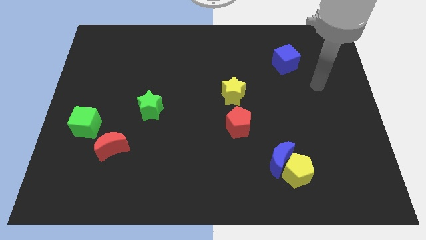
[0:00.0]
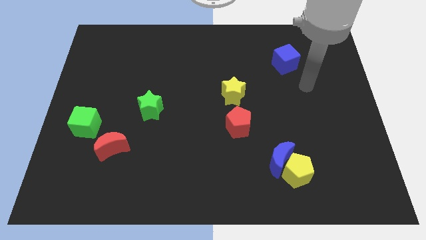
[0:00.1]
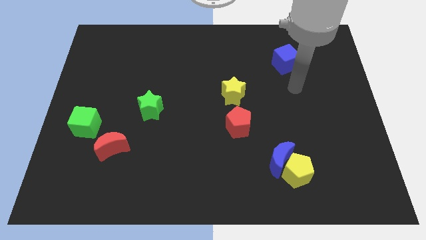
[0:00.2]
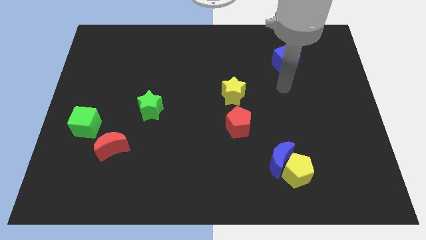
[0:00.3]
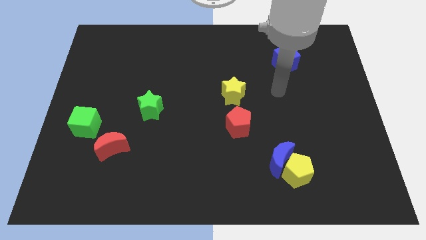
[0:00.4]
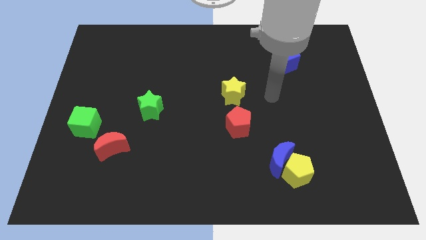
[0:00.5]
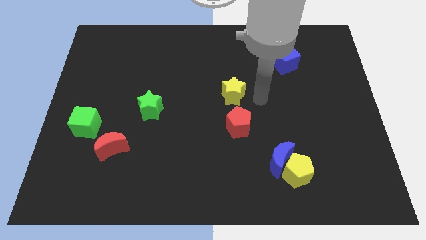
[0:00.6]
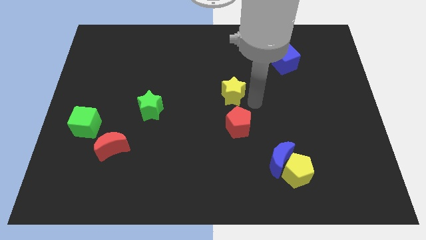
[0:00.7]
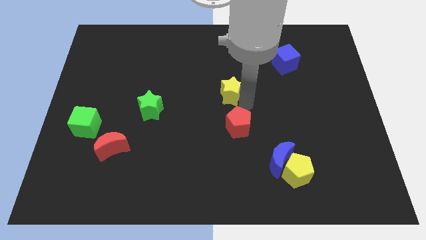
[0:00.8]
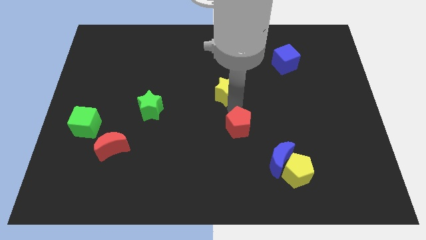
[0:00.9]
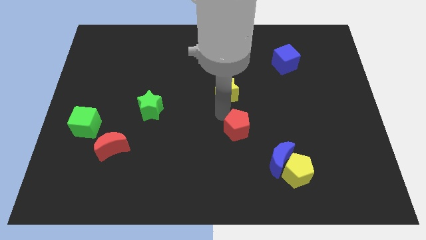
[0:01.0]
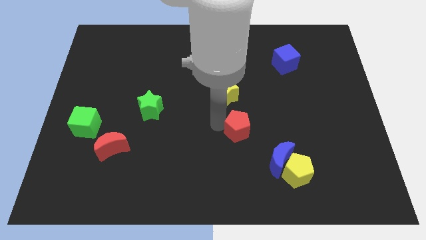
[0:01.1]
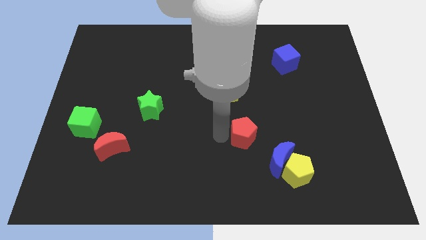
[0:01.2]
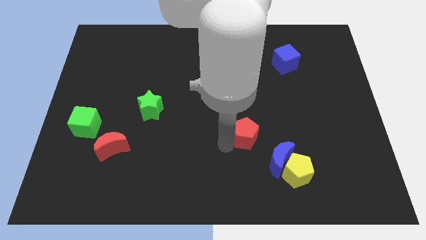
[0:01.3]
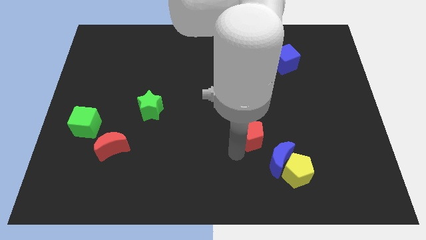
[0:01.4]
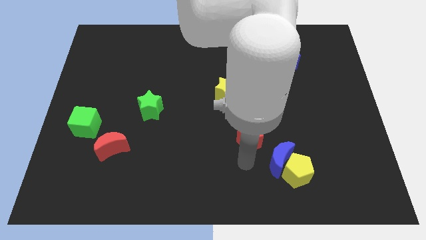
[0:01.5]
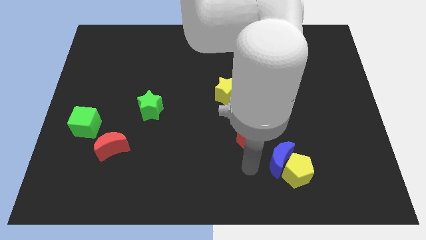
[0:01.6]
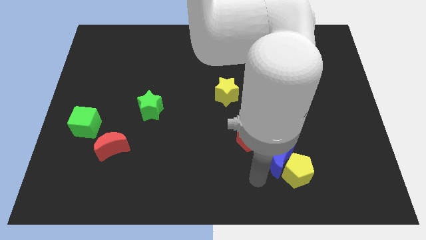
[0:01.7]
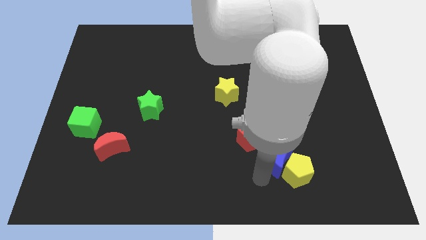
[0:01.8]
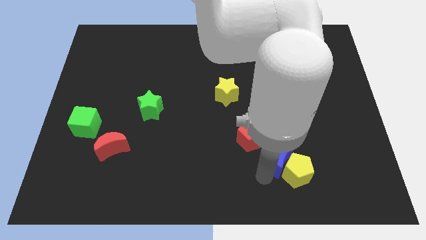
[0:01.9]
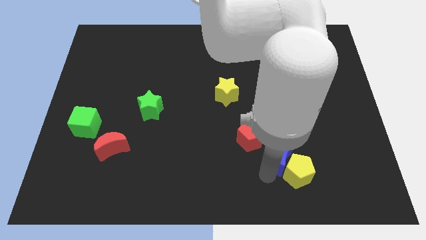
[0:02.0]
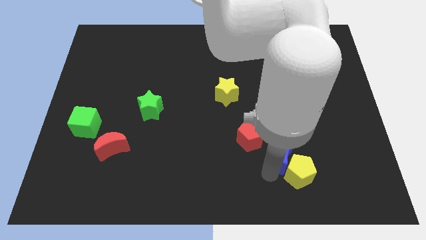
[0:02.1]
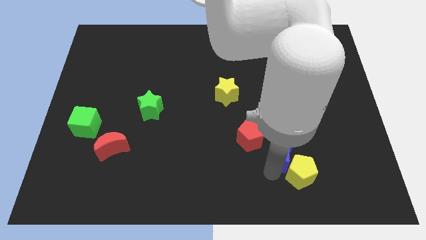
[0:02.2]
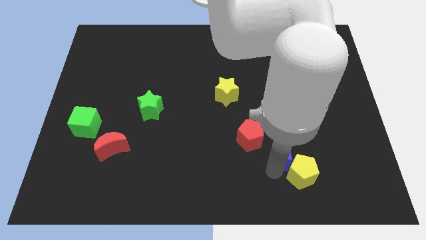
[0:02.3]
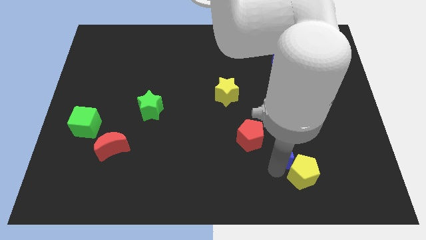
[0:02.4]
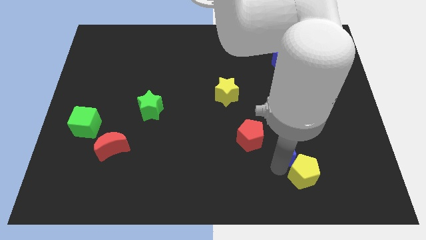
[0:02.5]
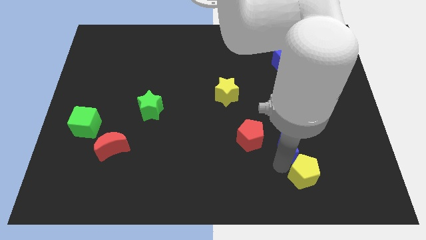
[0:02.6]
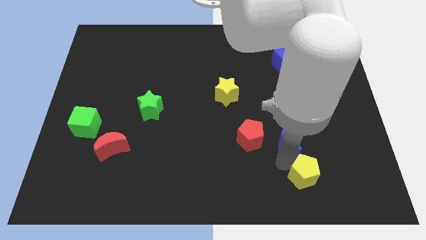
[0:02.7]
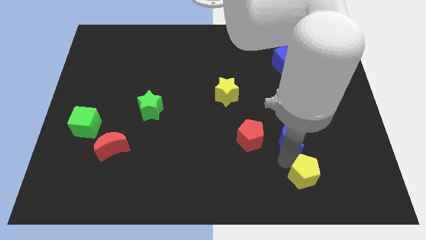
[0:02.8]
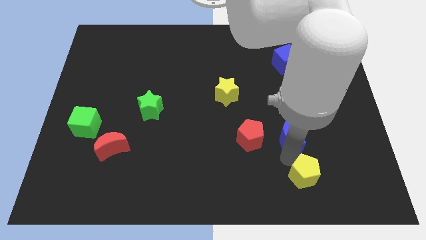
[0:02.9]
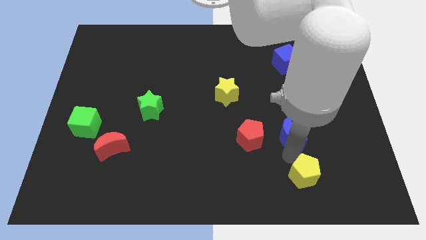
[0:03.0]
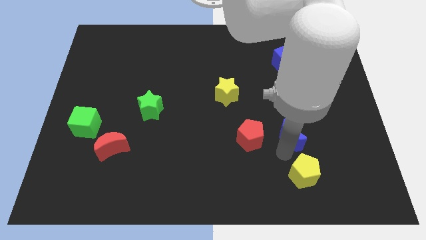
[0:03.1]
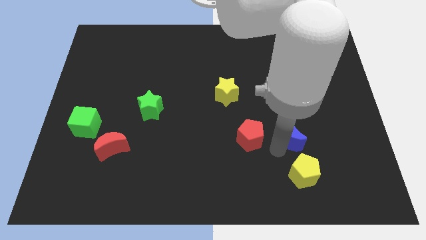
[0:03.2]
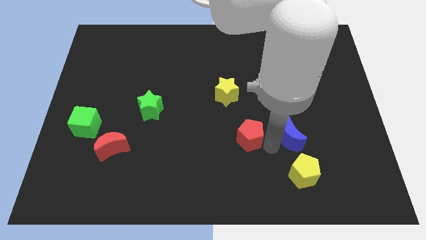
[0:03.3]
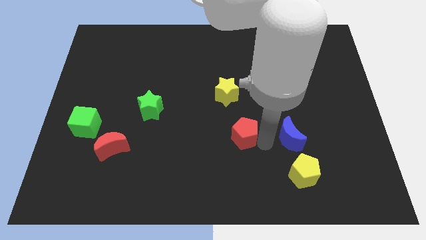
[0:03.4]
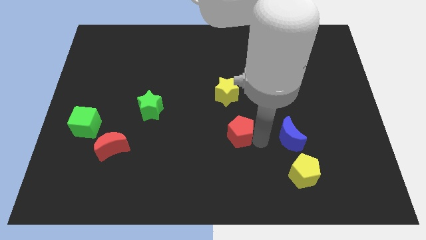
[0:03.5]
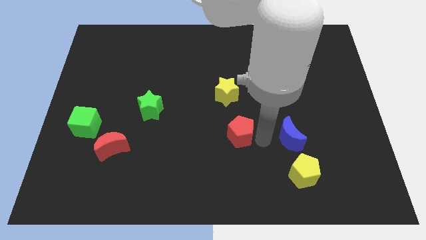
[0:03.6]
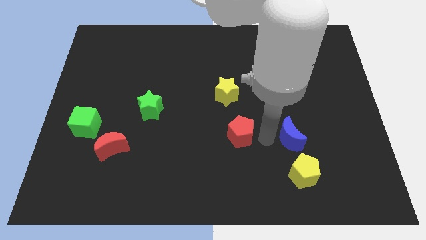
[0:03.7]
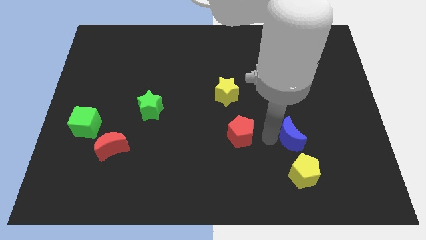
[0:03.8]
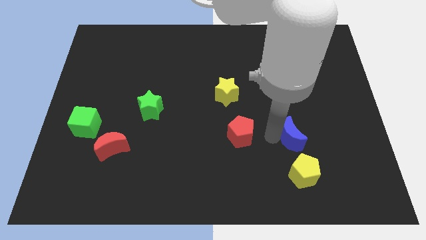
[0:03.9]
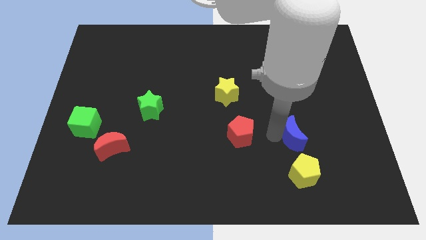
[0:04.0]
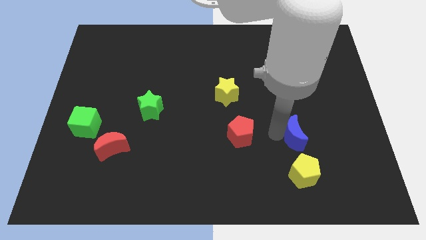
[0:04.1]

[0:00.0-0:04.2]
move the blue moon diagonally up and right somewhat

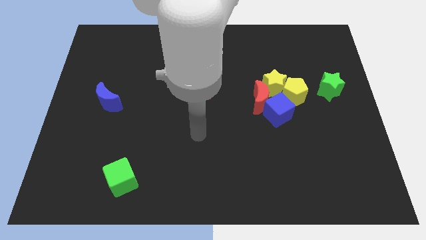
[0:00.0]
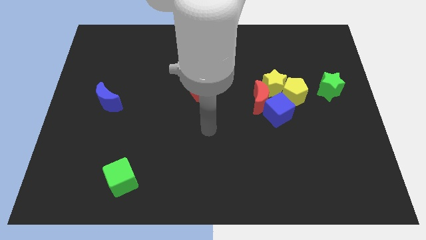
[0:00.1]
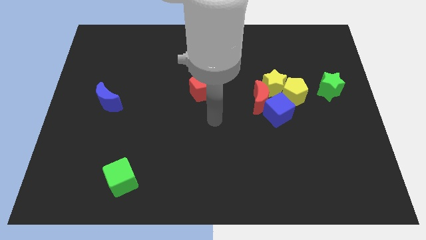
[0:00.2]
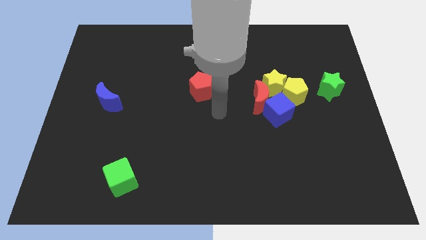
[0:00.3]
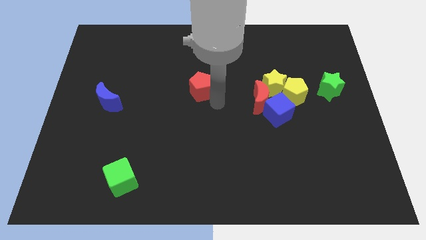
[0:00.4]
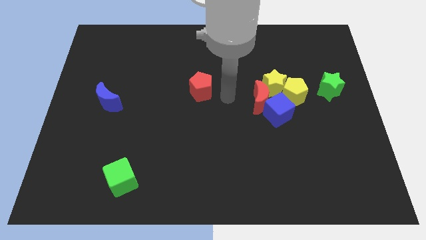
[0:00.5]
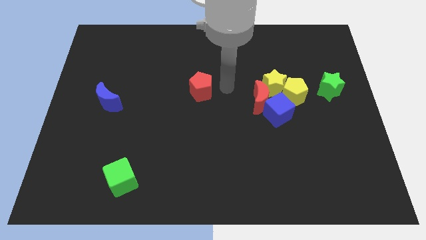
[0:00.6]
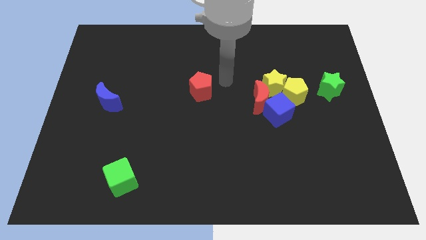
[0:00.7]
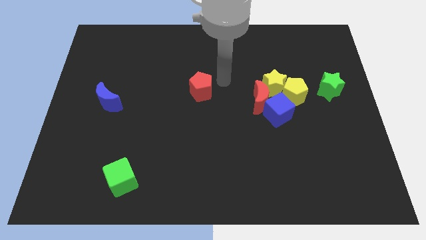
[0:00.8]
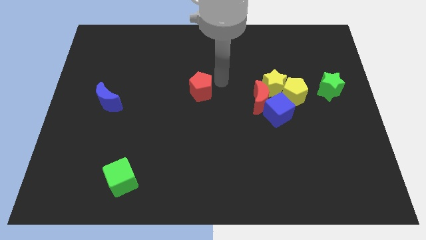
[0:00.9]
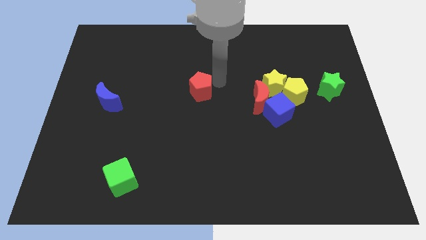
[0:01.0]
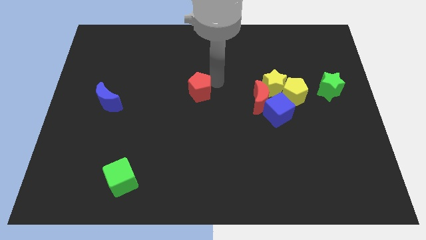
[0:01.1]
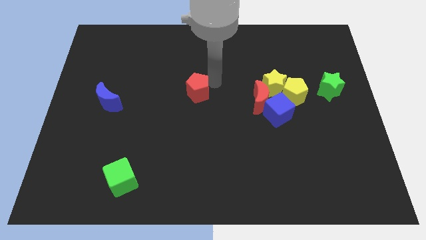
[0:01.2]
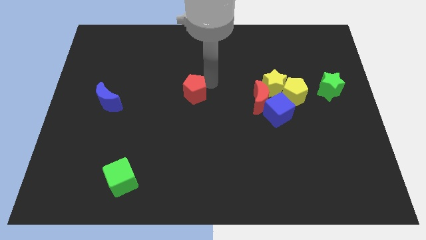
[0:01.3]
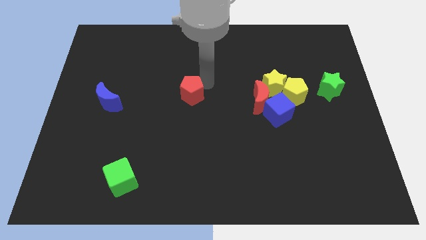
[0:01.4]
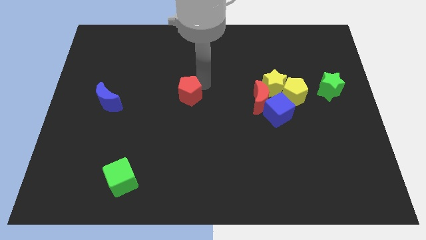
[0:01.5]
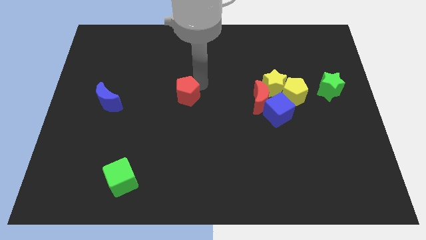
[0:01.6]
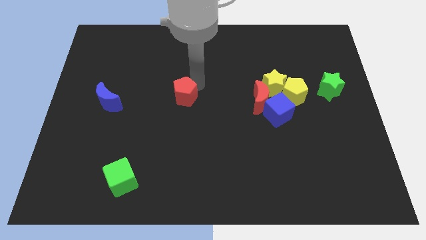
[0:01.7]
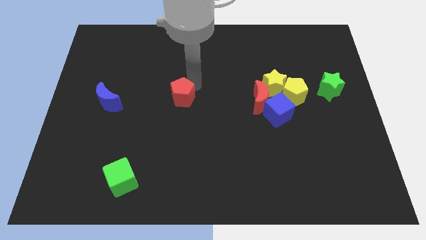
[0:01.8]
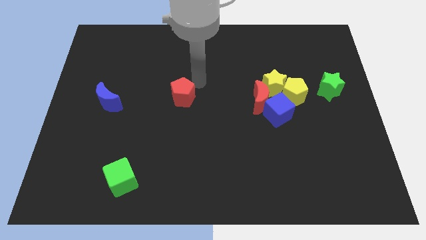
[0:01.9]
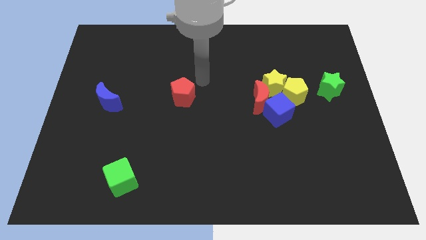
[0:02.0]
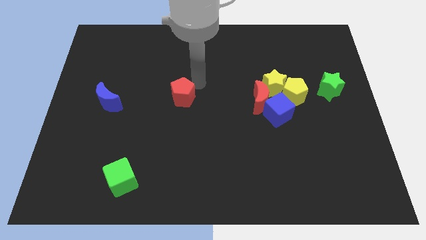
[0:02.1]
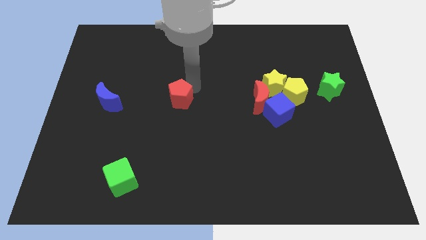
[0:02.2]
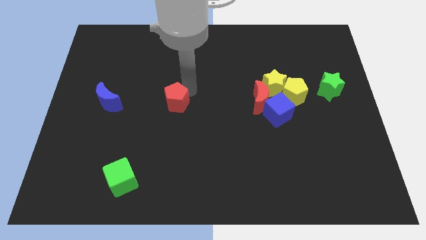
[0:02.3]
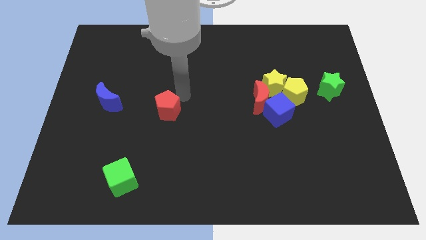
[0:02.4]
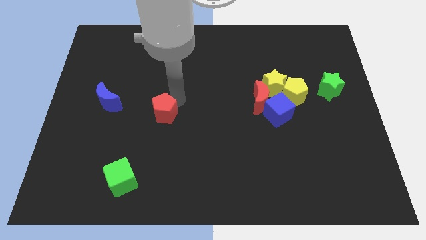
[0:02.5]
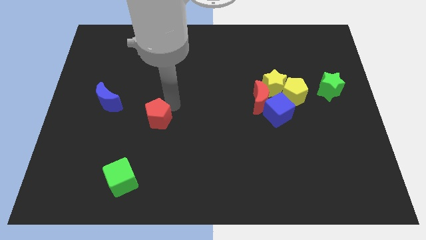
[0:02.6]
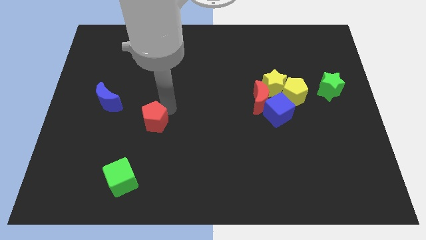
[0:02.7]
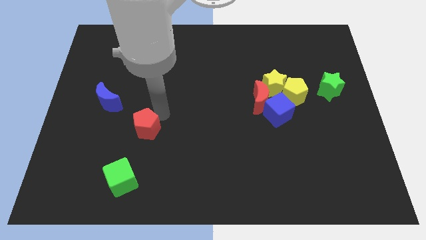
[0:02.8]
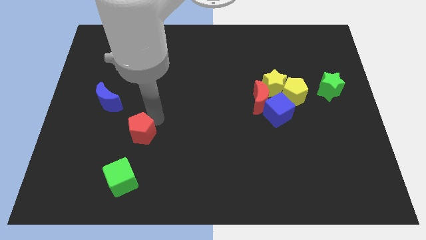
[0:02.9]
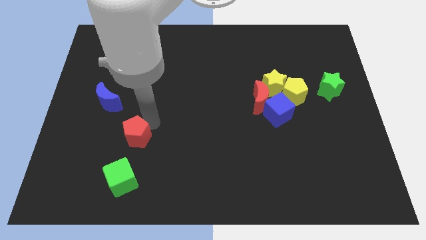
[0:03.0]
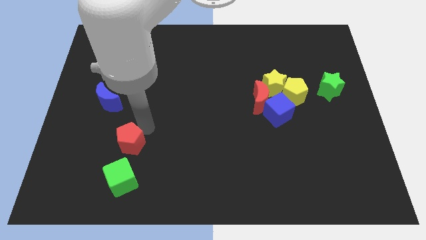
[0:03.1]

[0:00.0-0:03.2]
push the red pentagon downwards and to the left diagonally

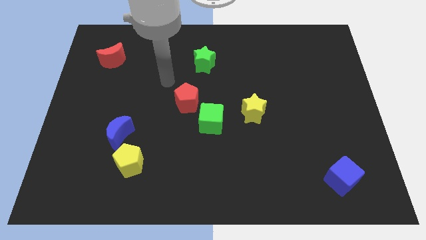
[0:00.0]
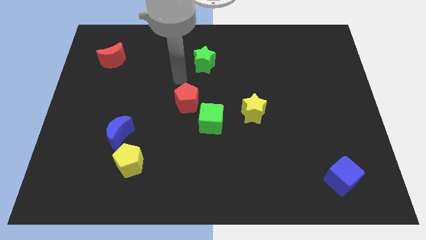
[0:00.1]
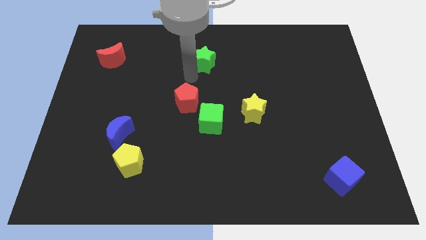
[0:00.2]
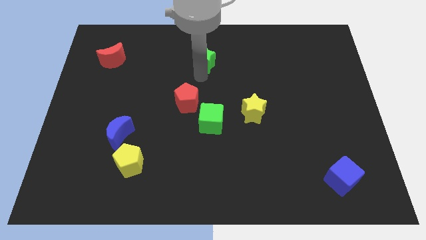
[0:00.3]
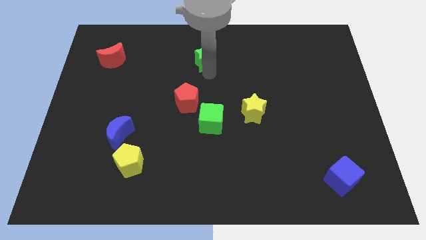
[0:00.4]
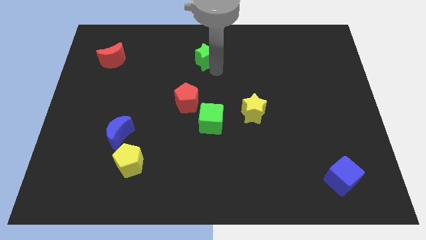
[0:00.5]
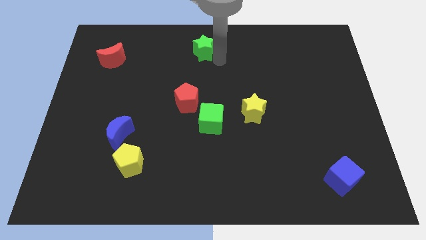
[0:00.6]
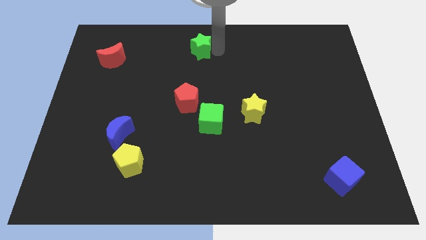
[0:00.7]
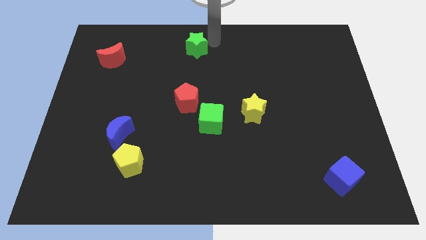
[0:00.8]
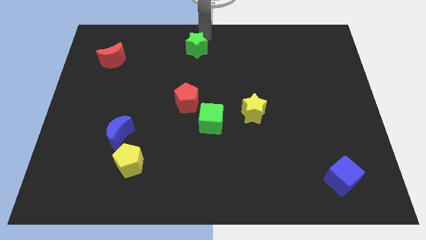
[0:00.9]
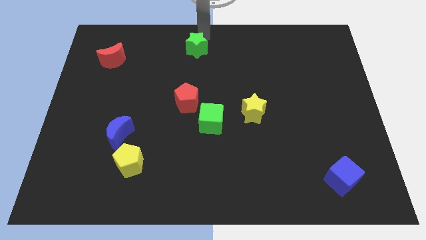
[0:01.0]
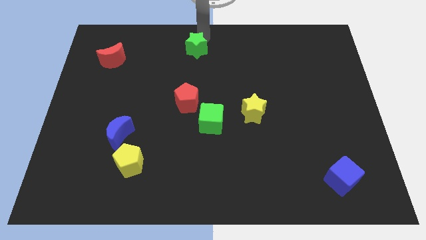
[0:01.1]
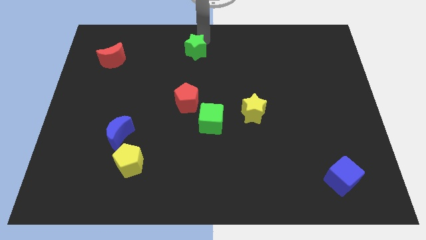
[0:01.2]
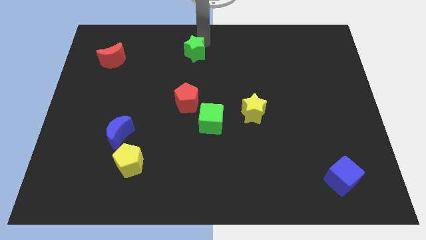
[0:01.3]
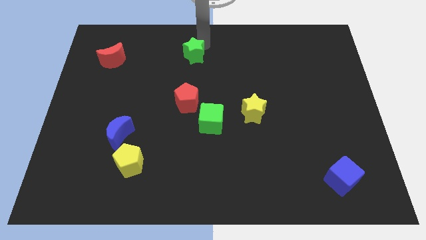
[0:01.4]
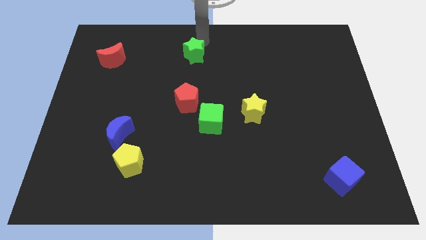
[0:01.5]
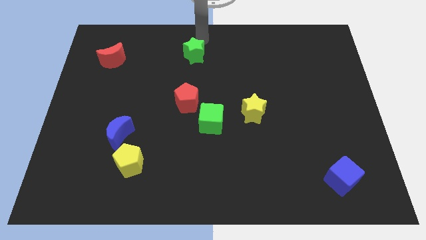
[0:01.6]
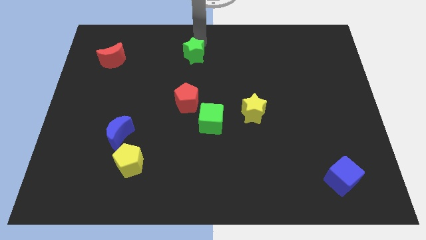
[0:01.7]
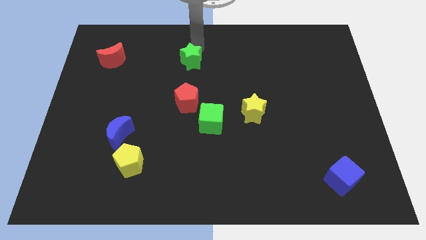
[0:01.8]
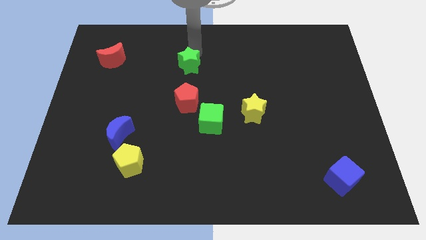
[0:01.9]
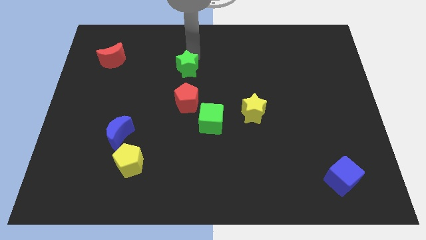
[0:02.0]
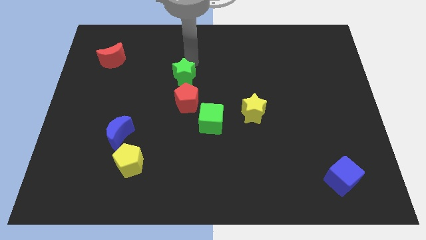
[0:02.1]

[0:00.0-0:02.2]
slightly slide the green star downwards and left diagonally
